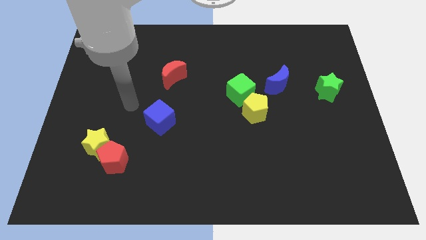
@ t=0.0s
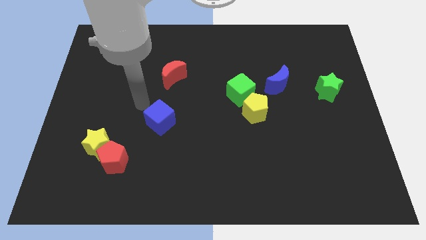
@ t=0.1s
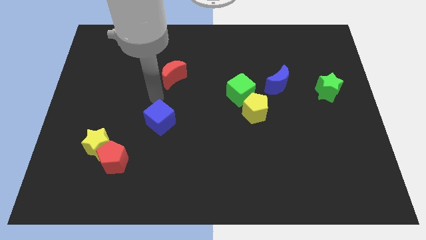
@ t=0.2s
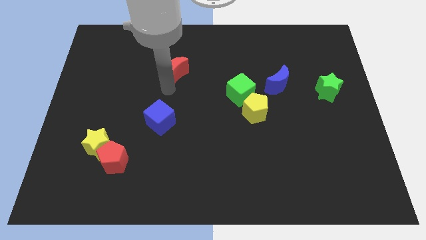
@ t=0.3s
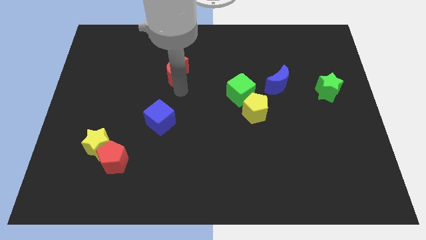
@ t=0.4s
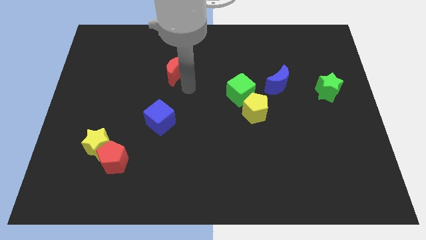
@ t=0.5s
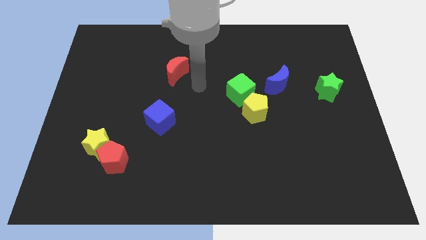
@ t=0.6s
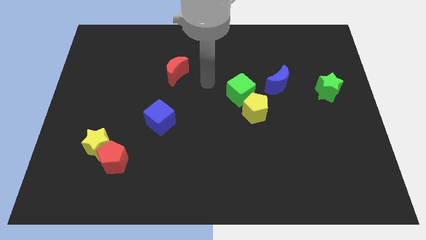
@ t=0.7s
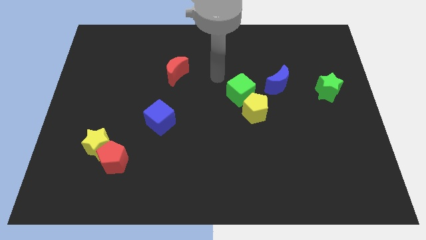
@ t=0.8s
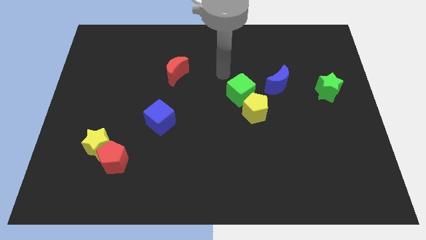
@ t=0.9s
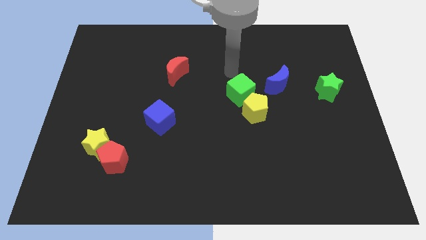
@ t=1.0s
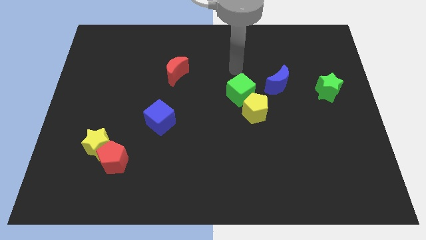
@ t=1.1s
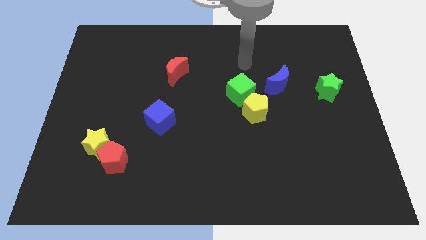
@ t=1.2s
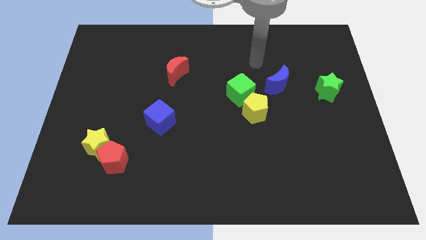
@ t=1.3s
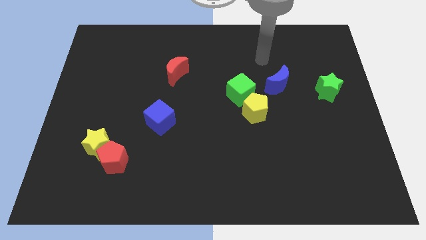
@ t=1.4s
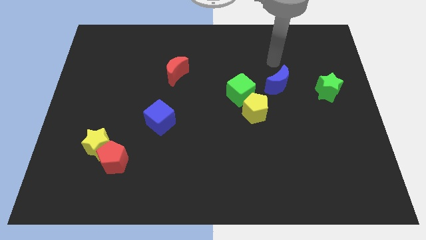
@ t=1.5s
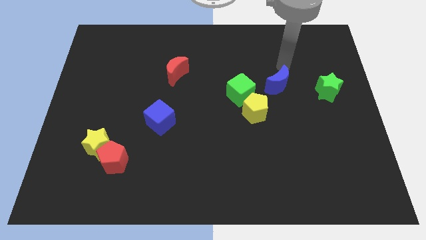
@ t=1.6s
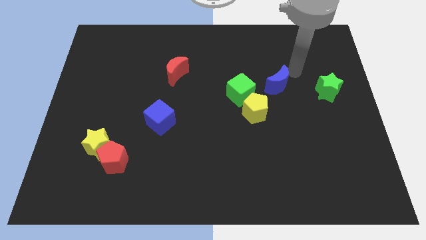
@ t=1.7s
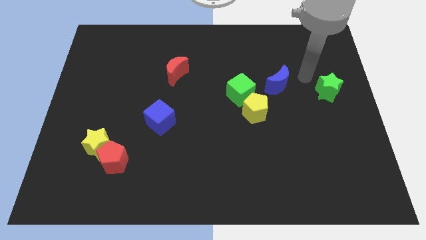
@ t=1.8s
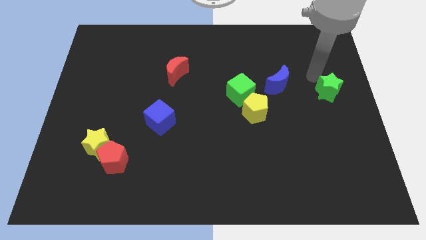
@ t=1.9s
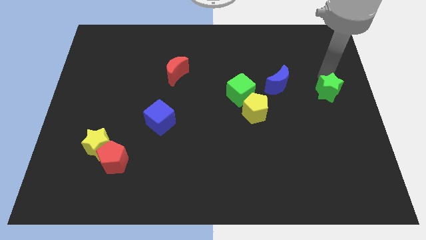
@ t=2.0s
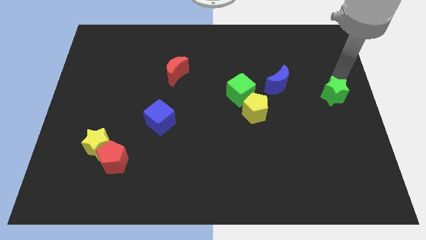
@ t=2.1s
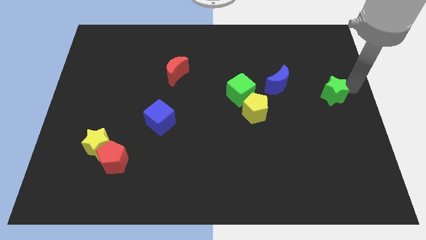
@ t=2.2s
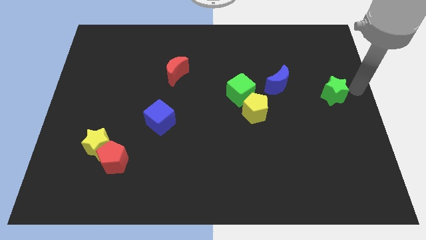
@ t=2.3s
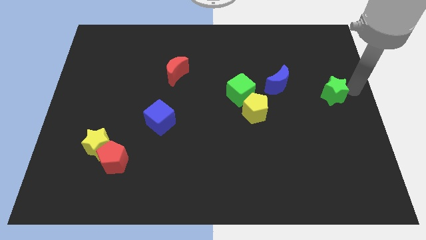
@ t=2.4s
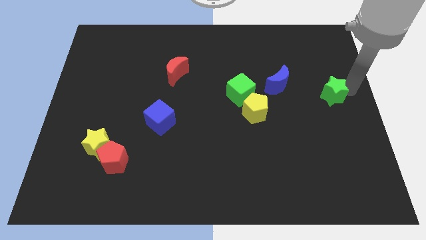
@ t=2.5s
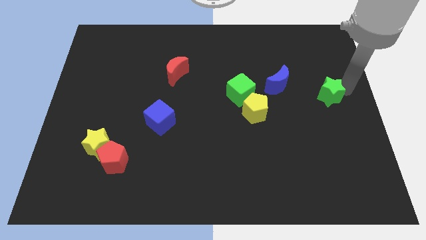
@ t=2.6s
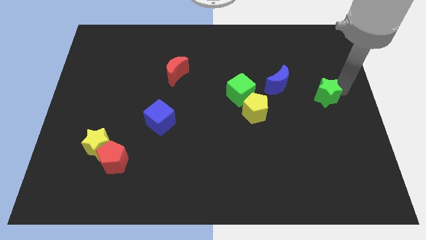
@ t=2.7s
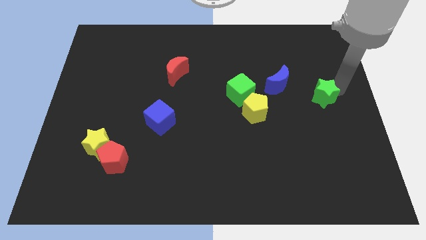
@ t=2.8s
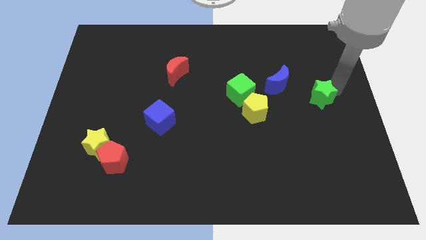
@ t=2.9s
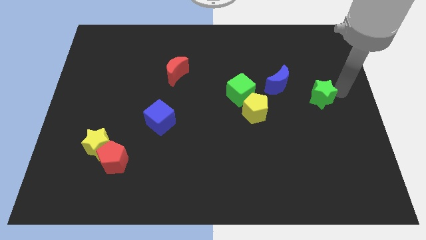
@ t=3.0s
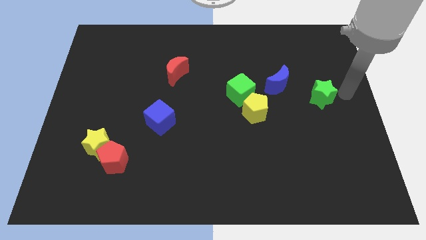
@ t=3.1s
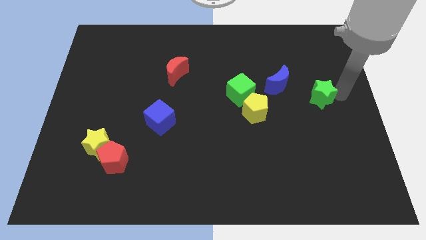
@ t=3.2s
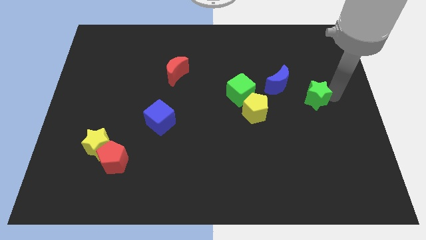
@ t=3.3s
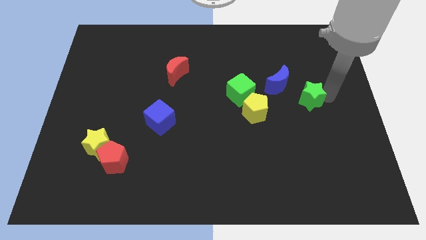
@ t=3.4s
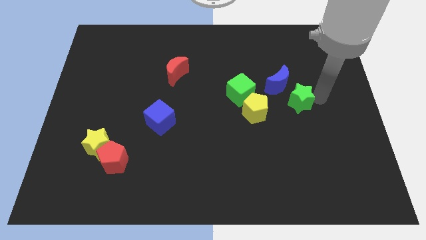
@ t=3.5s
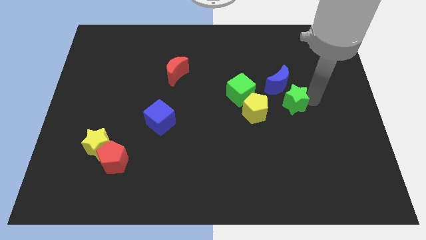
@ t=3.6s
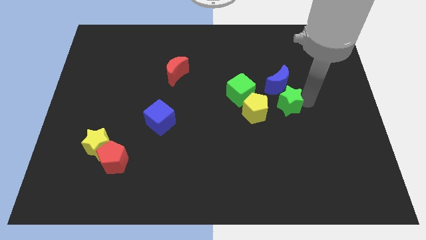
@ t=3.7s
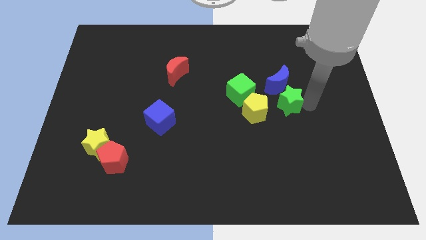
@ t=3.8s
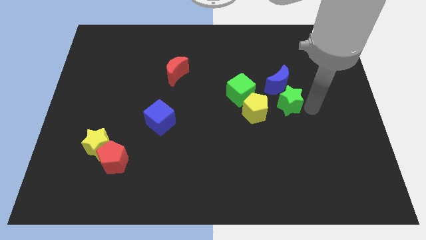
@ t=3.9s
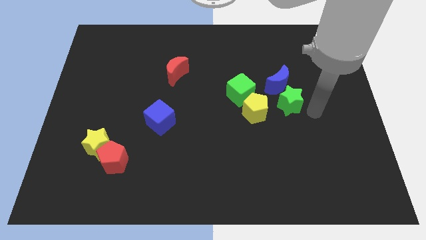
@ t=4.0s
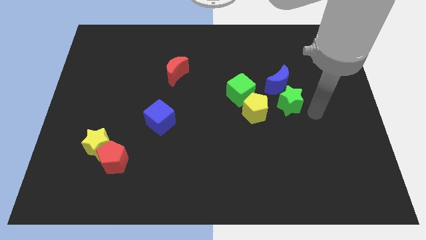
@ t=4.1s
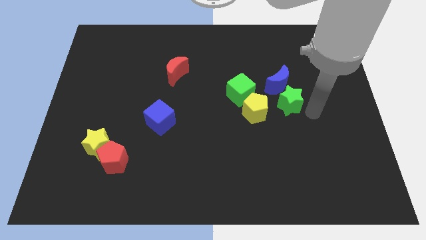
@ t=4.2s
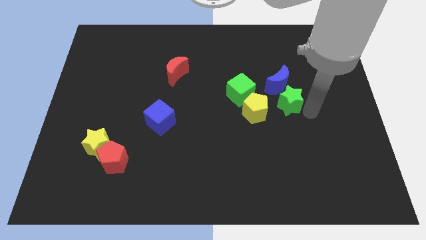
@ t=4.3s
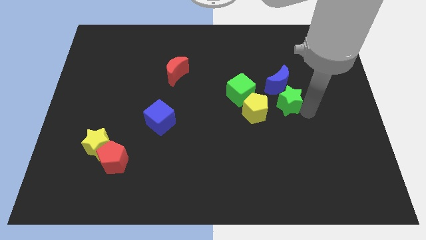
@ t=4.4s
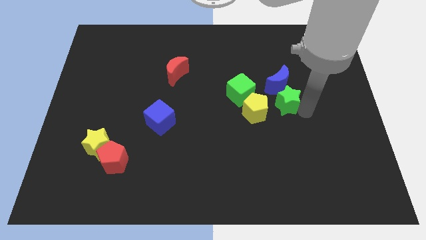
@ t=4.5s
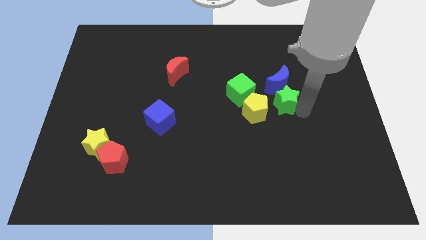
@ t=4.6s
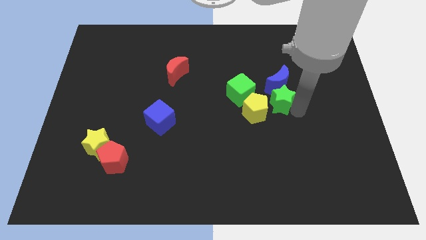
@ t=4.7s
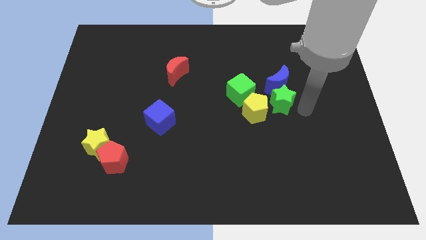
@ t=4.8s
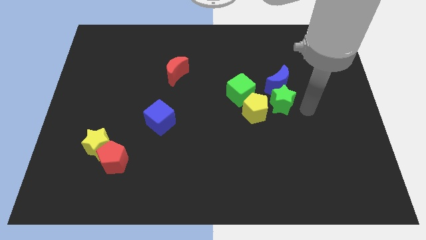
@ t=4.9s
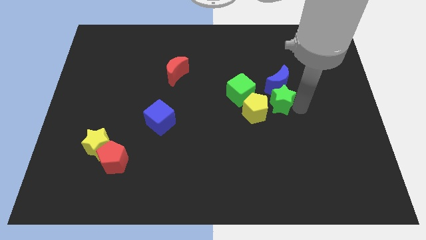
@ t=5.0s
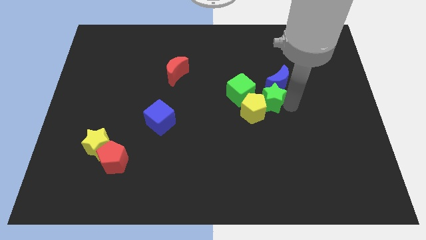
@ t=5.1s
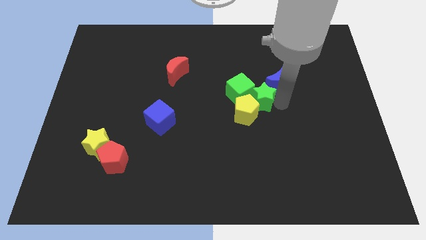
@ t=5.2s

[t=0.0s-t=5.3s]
put the green star towards the green cube

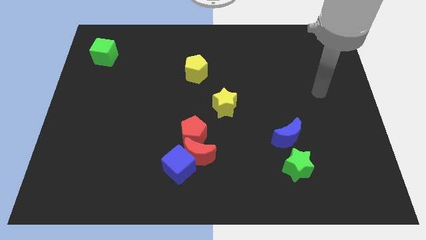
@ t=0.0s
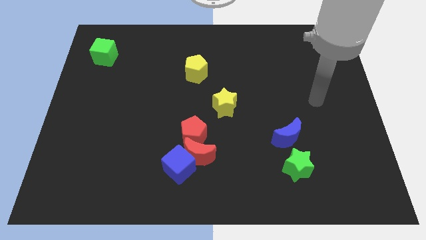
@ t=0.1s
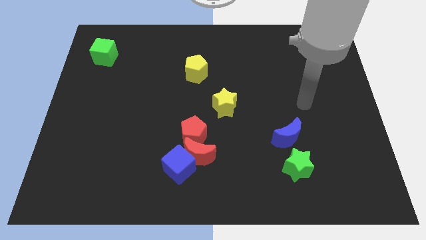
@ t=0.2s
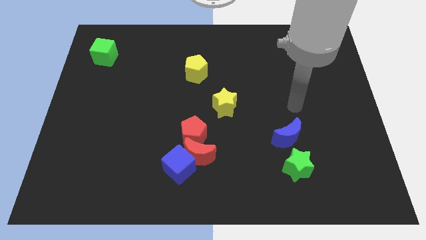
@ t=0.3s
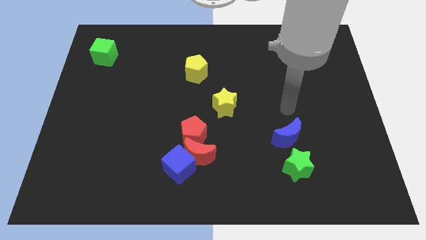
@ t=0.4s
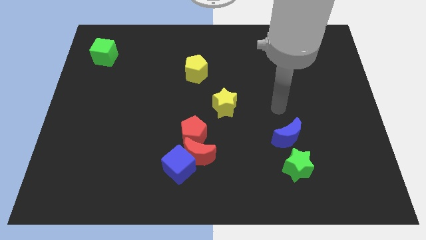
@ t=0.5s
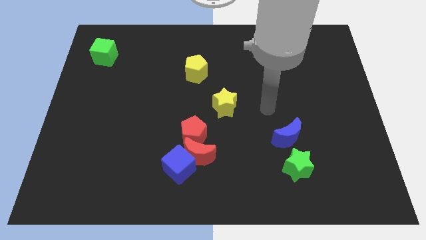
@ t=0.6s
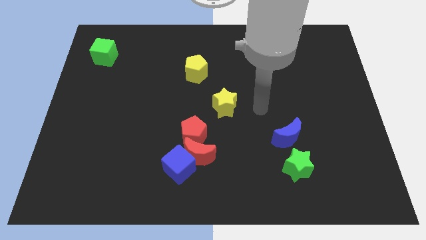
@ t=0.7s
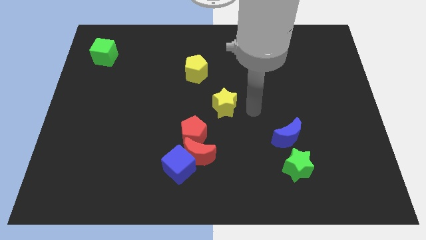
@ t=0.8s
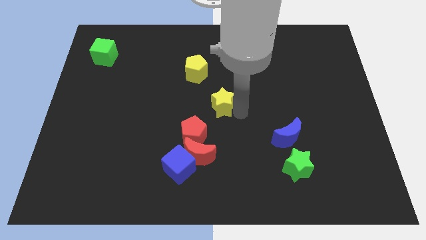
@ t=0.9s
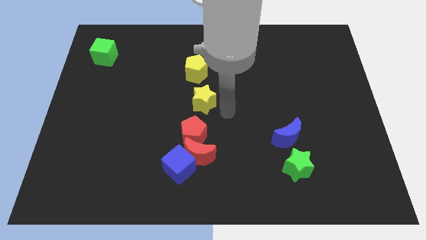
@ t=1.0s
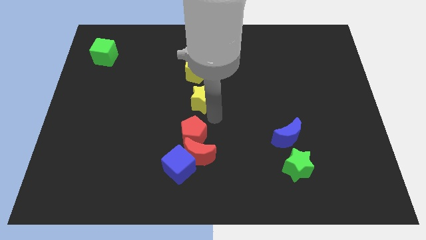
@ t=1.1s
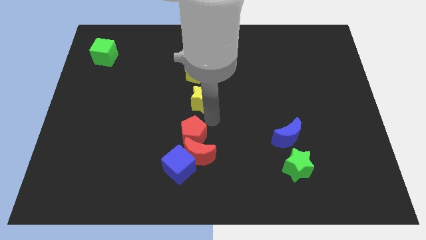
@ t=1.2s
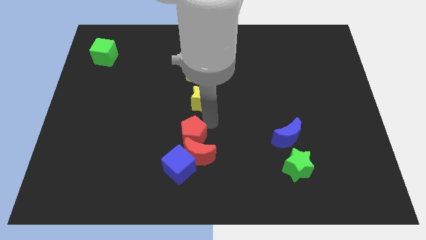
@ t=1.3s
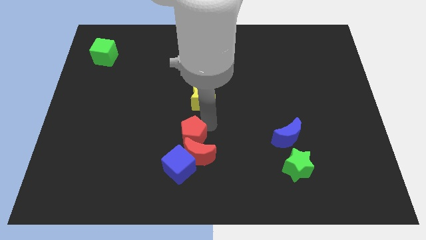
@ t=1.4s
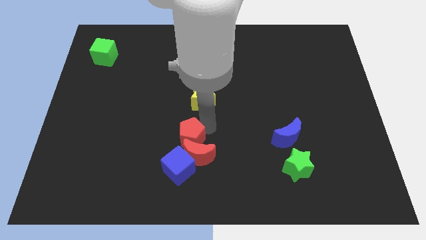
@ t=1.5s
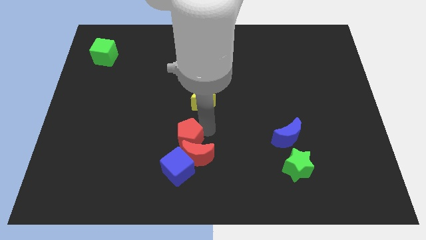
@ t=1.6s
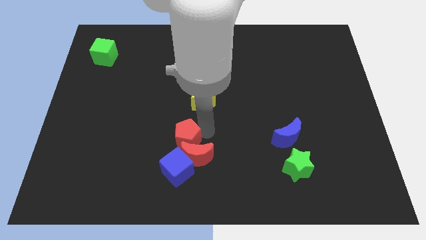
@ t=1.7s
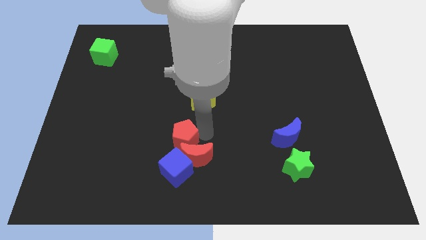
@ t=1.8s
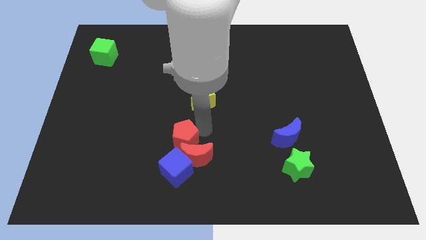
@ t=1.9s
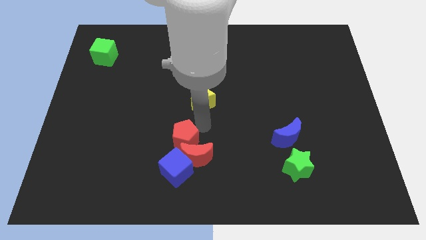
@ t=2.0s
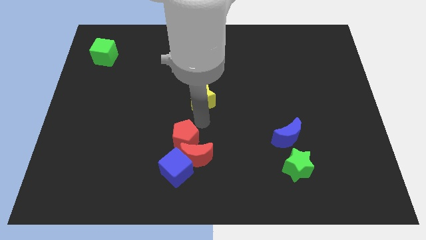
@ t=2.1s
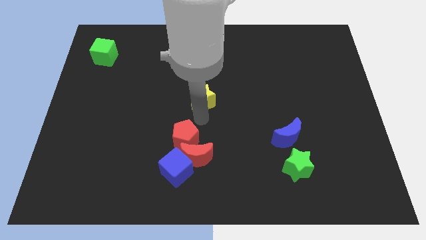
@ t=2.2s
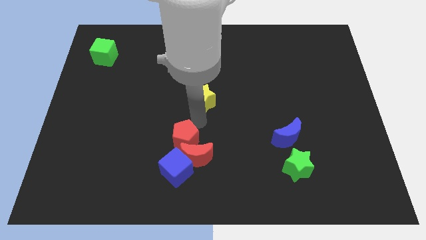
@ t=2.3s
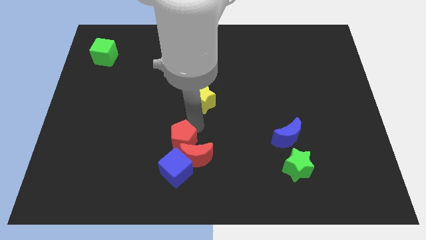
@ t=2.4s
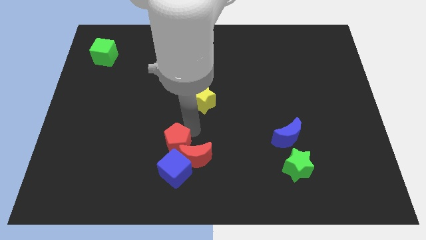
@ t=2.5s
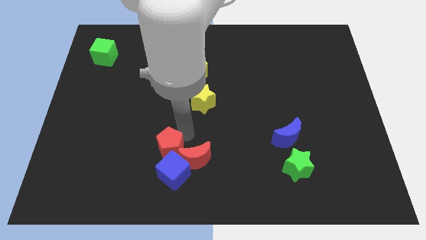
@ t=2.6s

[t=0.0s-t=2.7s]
slide the red pentagon close to the blue cube

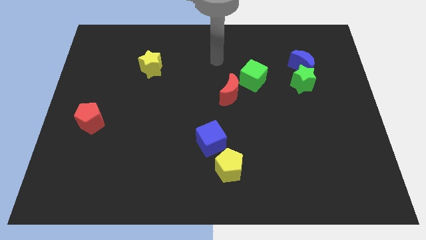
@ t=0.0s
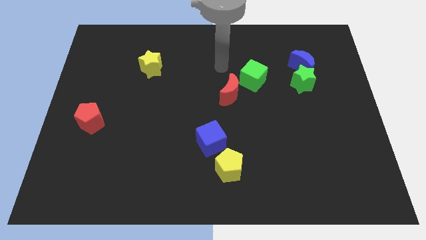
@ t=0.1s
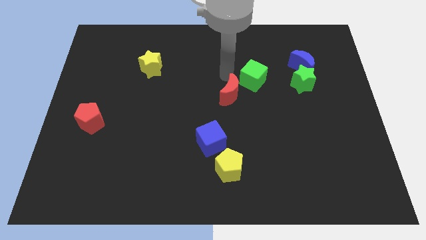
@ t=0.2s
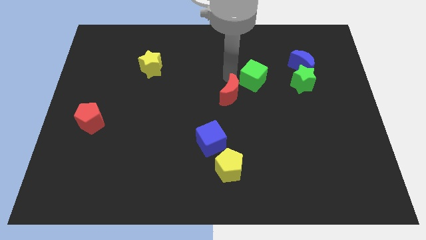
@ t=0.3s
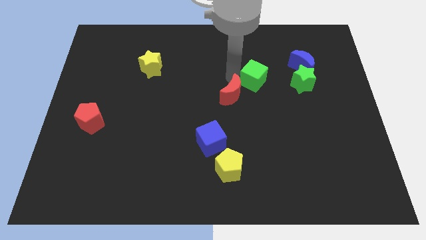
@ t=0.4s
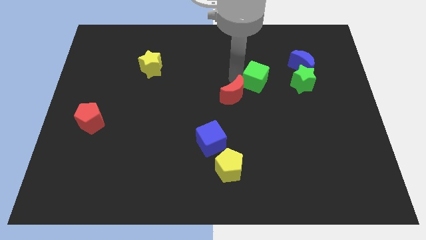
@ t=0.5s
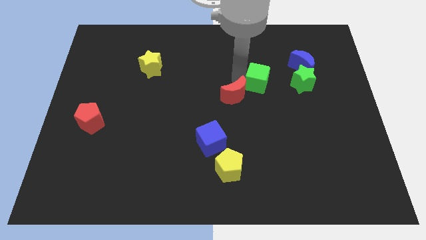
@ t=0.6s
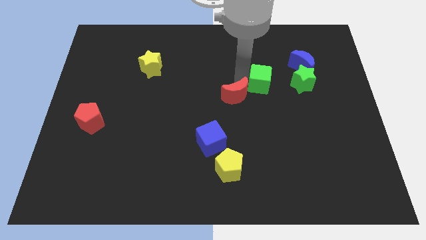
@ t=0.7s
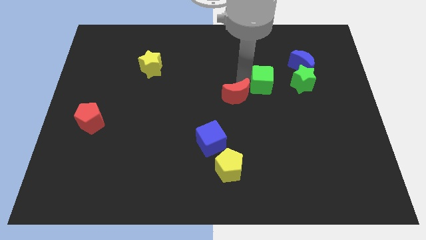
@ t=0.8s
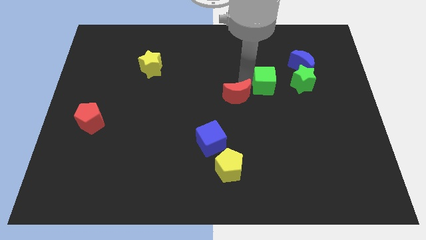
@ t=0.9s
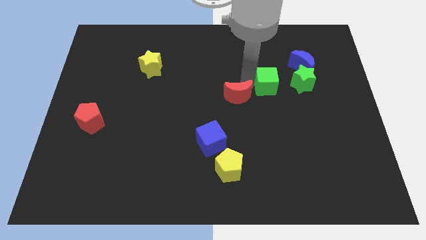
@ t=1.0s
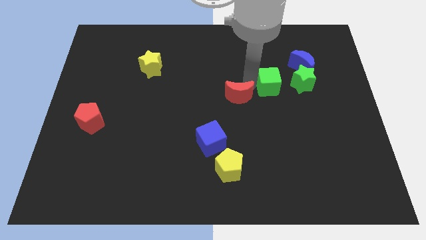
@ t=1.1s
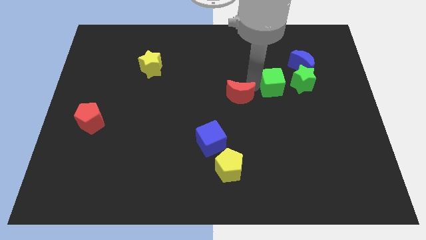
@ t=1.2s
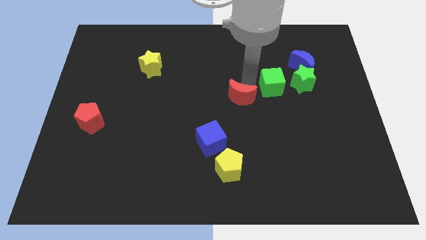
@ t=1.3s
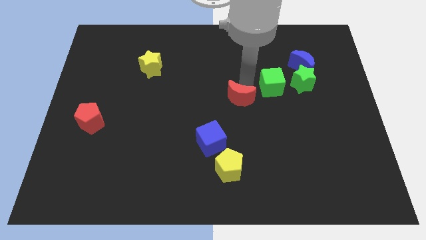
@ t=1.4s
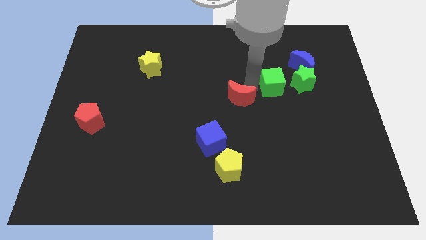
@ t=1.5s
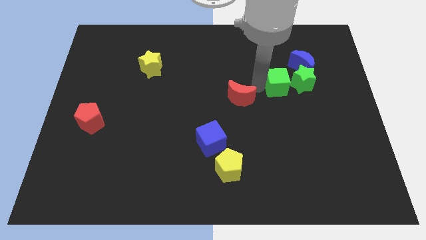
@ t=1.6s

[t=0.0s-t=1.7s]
slide the green cube close to the green star
